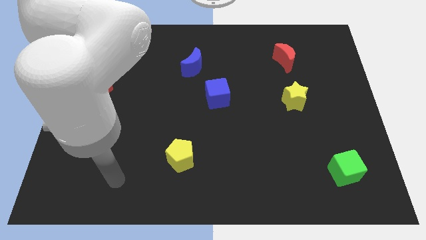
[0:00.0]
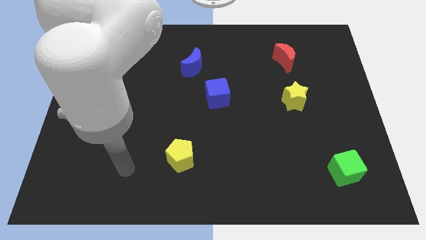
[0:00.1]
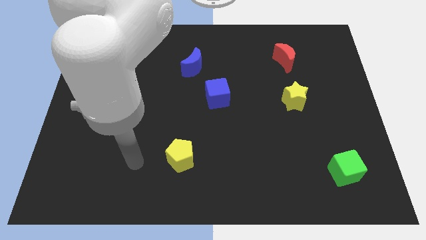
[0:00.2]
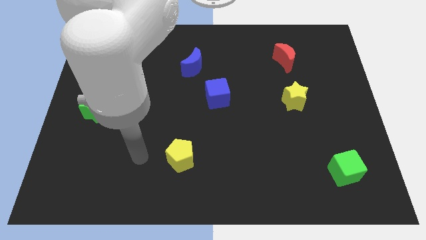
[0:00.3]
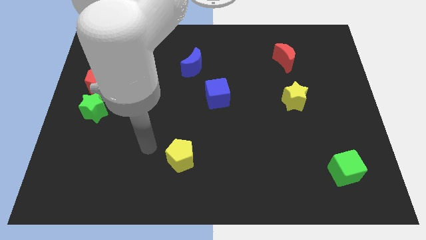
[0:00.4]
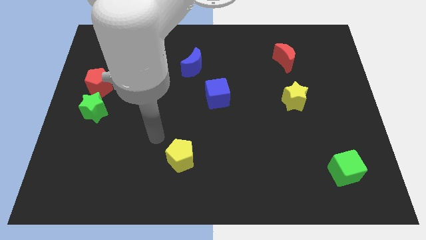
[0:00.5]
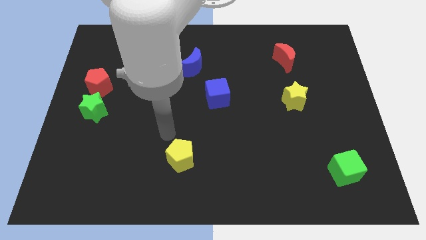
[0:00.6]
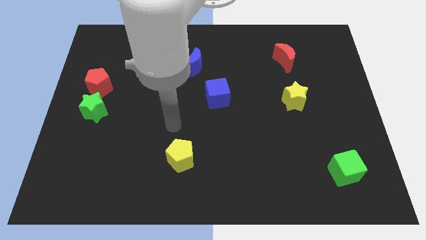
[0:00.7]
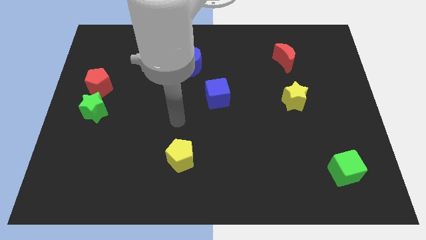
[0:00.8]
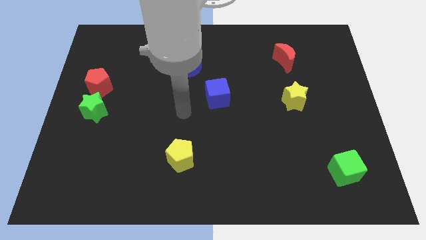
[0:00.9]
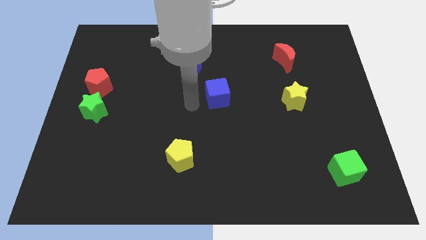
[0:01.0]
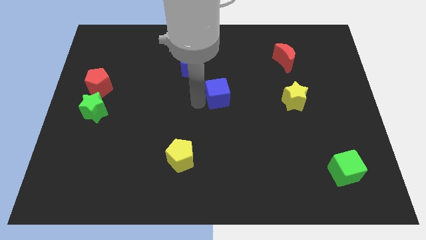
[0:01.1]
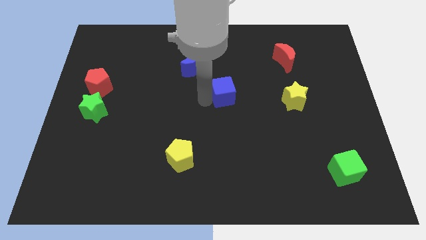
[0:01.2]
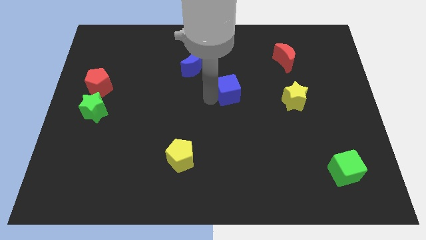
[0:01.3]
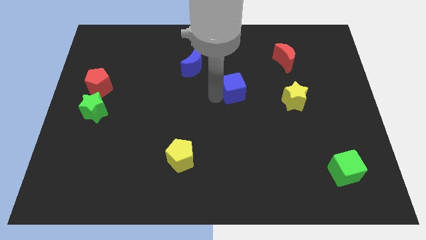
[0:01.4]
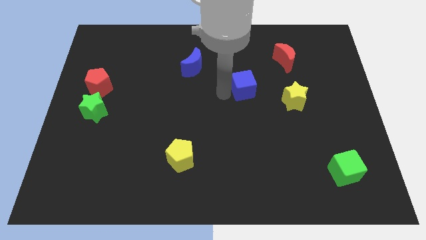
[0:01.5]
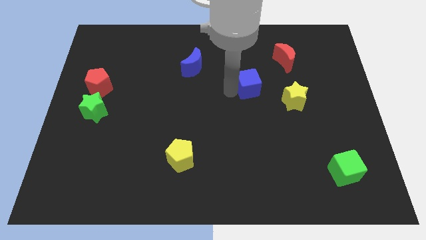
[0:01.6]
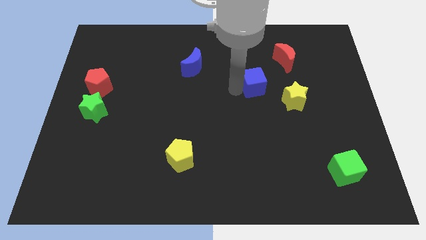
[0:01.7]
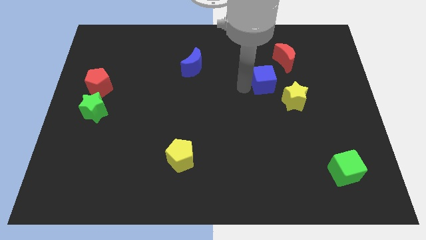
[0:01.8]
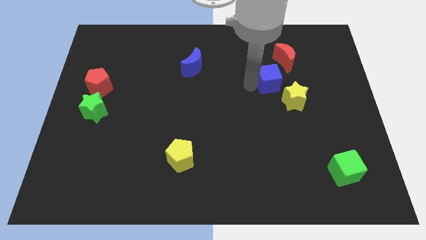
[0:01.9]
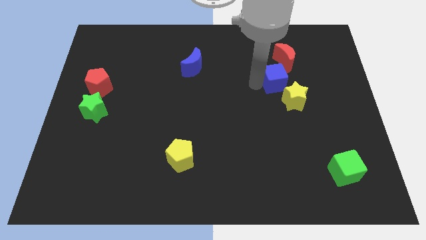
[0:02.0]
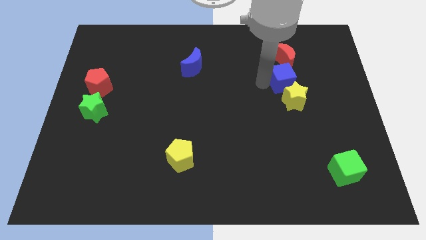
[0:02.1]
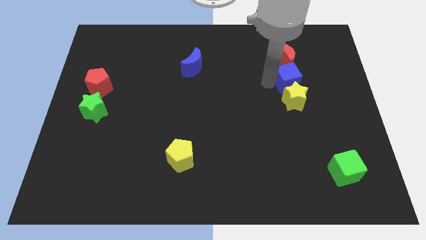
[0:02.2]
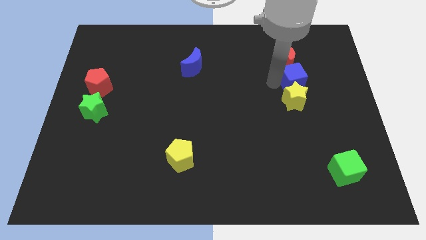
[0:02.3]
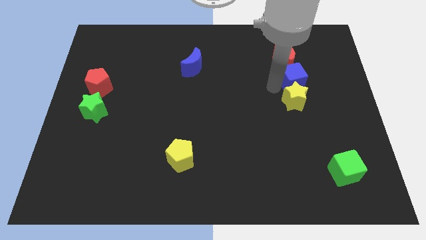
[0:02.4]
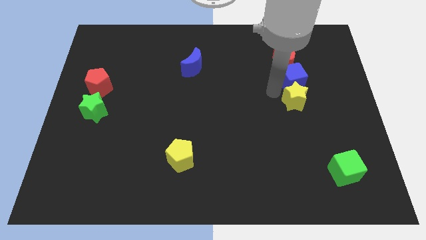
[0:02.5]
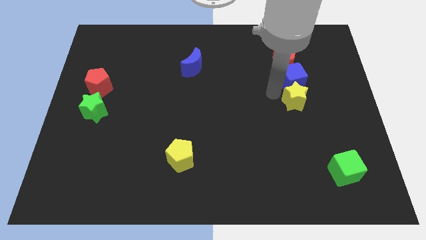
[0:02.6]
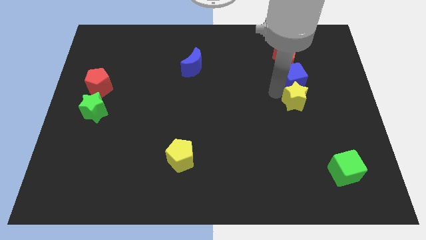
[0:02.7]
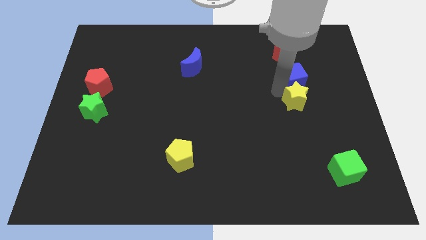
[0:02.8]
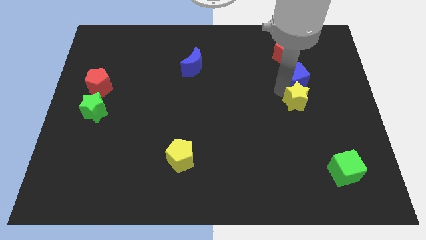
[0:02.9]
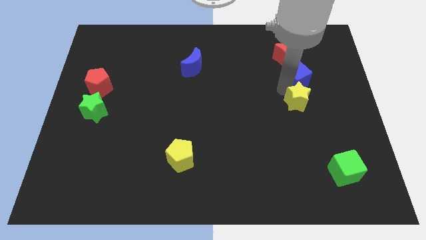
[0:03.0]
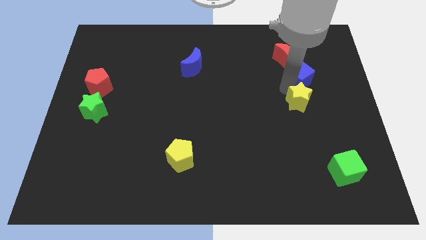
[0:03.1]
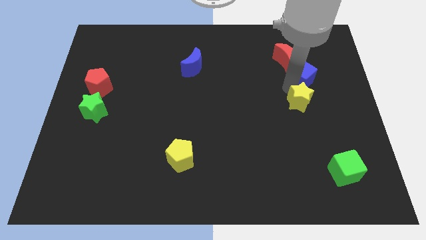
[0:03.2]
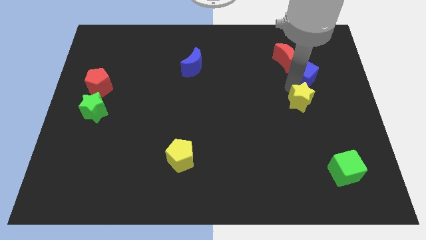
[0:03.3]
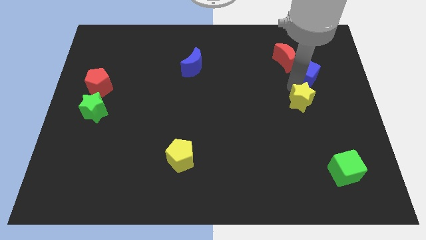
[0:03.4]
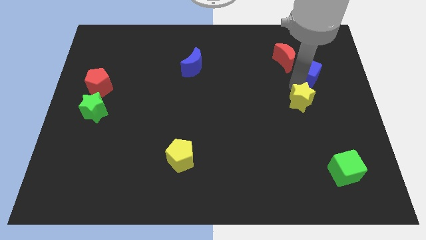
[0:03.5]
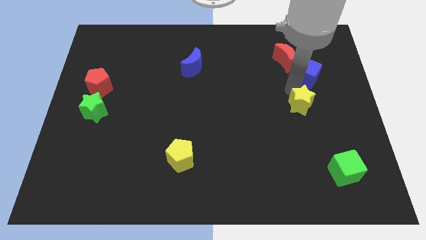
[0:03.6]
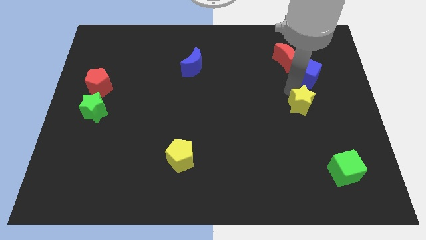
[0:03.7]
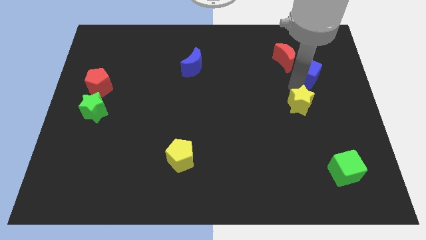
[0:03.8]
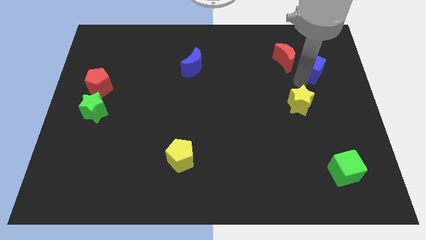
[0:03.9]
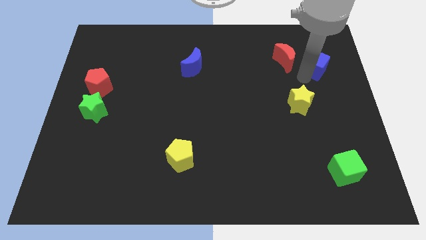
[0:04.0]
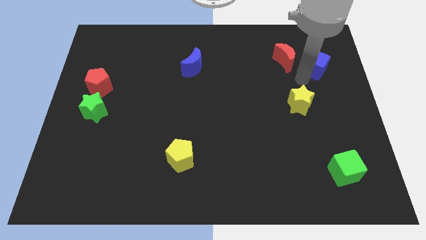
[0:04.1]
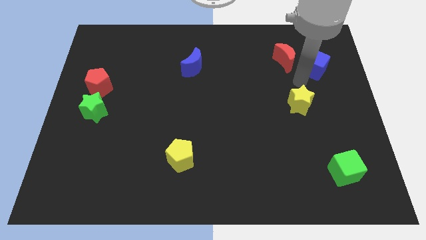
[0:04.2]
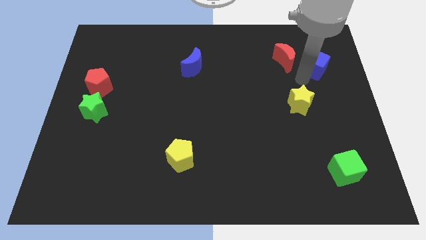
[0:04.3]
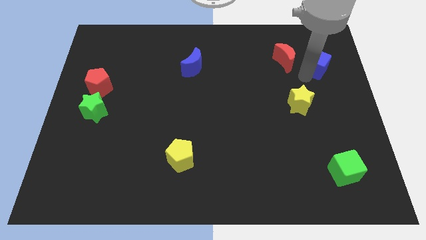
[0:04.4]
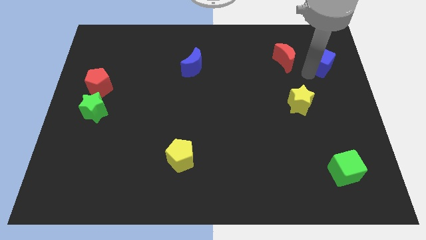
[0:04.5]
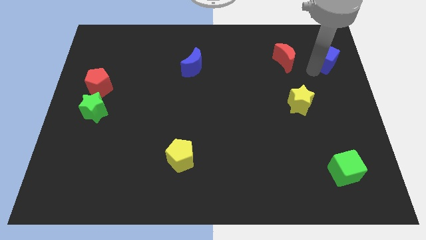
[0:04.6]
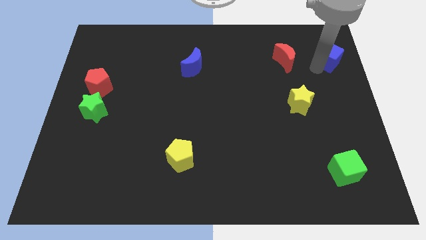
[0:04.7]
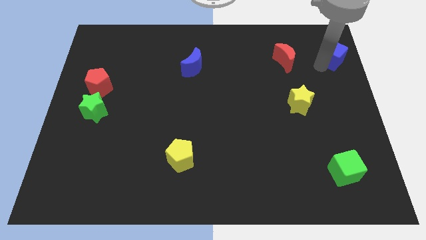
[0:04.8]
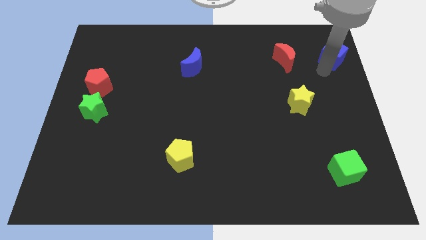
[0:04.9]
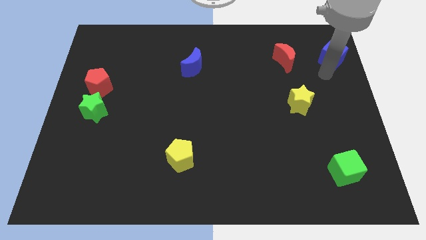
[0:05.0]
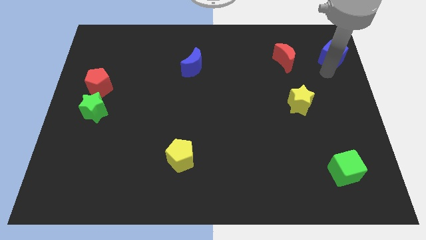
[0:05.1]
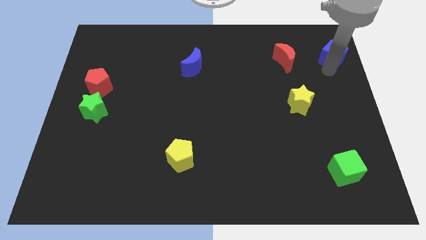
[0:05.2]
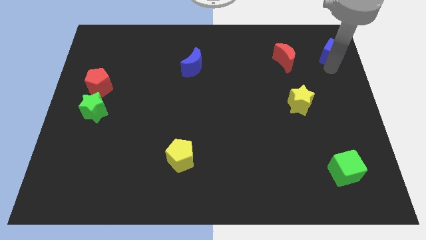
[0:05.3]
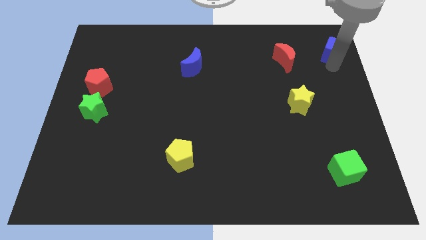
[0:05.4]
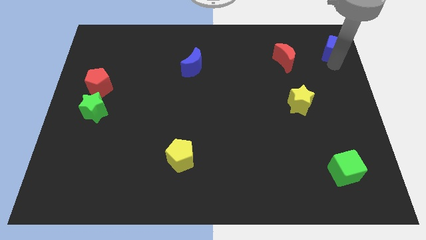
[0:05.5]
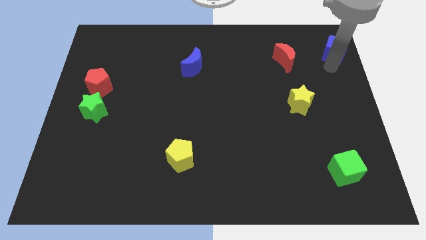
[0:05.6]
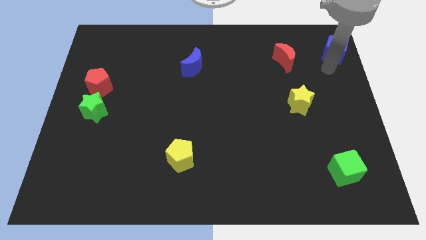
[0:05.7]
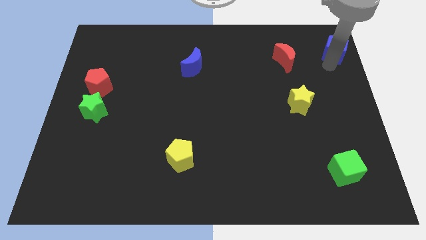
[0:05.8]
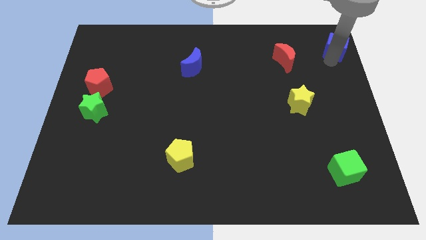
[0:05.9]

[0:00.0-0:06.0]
move the blue cube to the upper right corner
